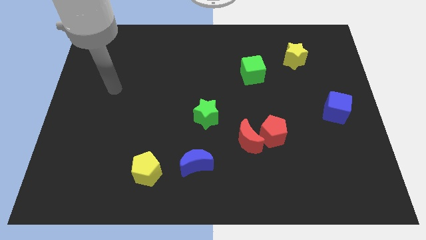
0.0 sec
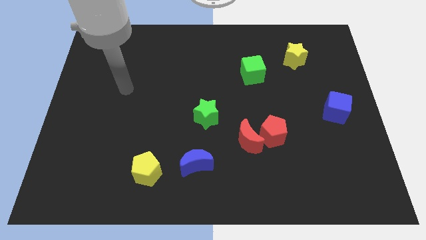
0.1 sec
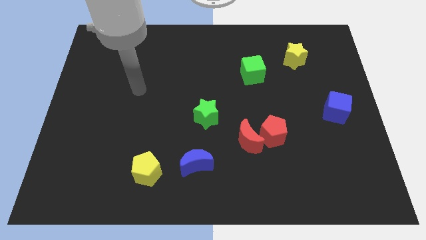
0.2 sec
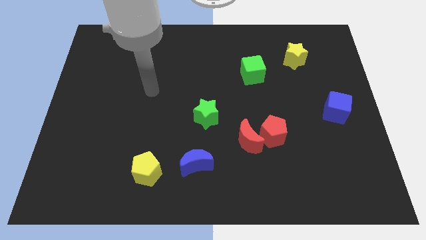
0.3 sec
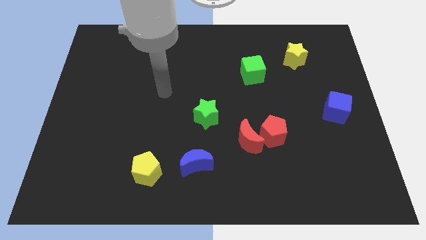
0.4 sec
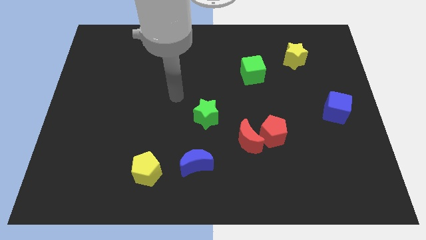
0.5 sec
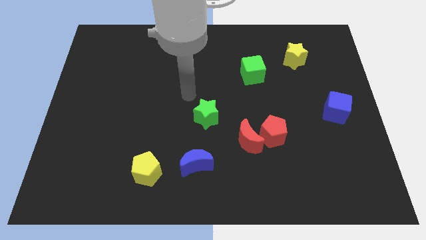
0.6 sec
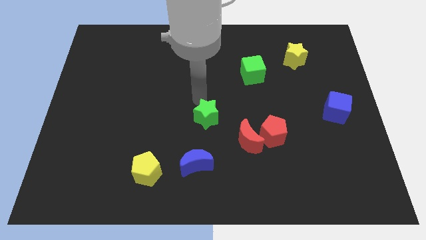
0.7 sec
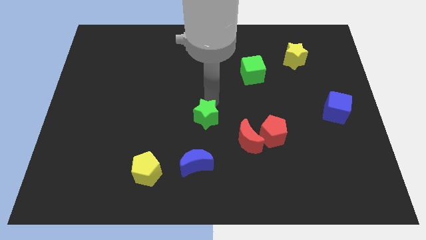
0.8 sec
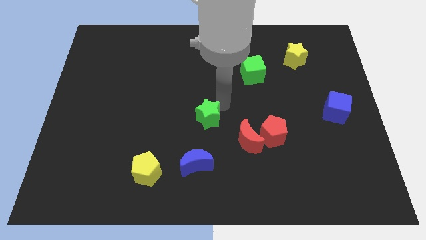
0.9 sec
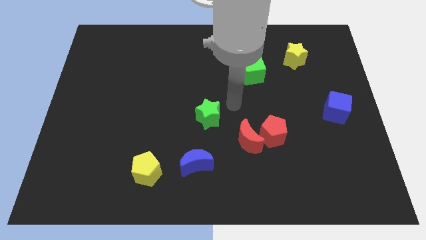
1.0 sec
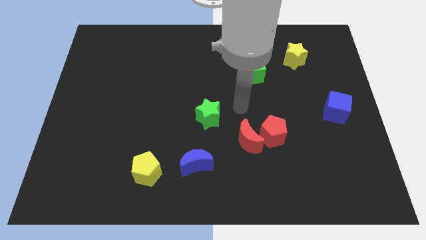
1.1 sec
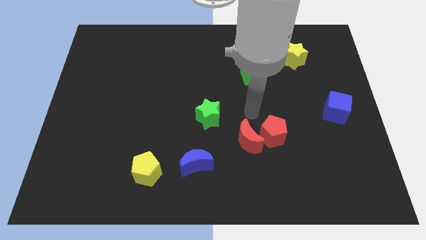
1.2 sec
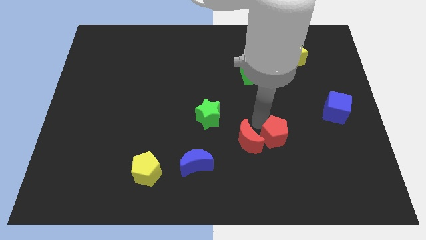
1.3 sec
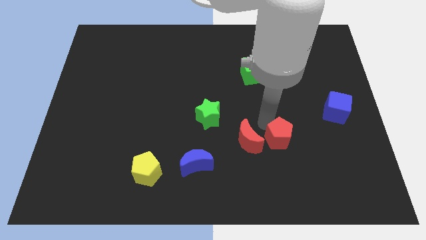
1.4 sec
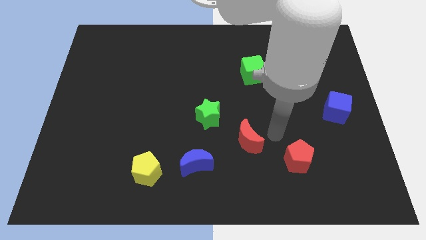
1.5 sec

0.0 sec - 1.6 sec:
pull the red moon apart from the red pentagon

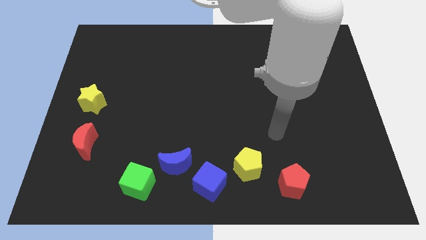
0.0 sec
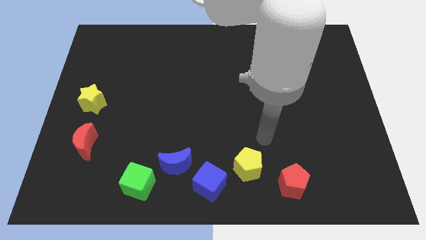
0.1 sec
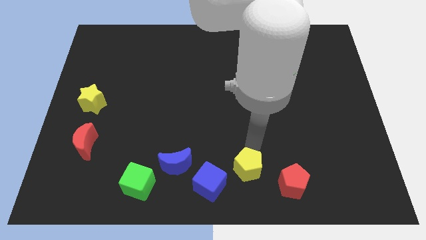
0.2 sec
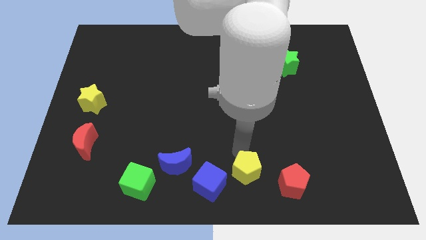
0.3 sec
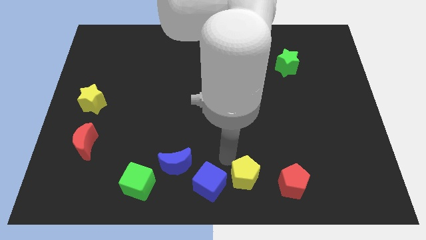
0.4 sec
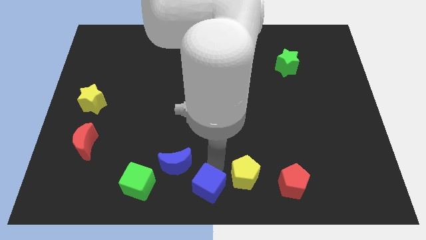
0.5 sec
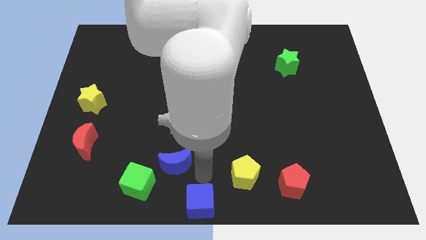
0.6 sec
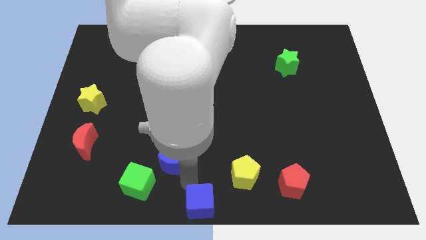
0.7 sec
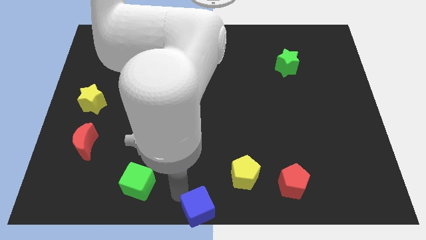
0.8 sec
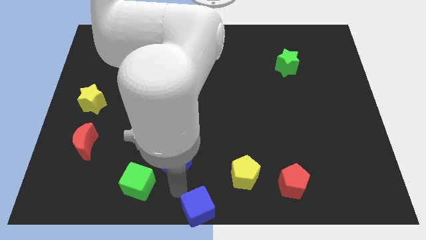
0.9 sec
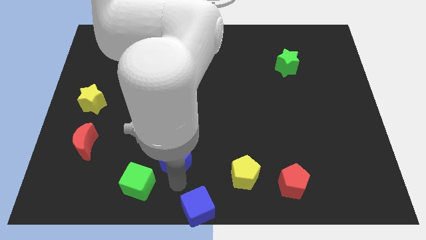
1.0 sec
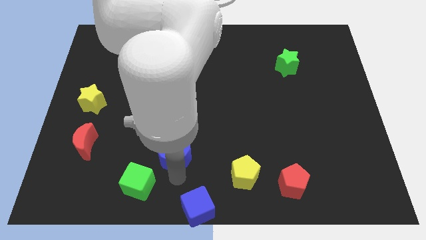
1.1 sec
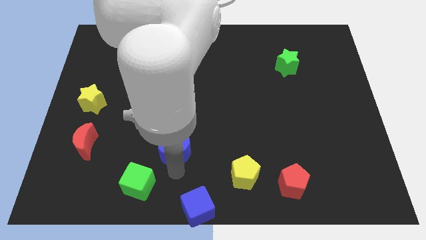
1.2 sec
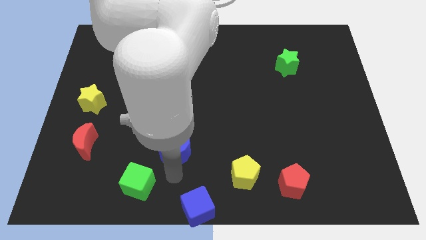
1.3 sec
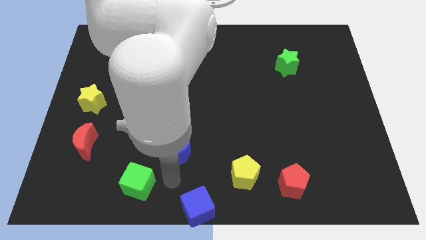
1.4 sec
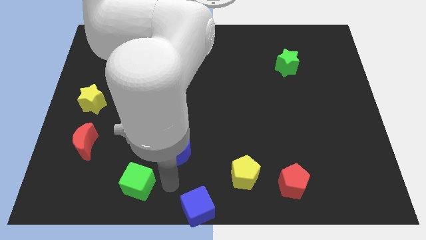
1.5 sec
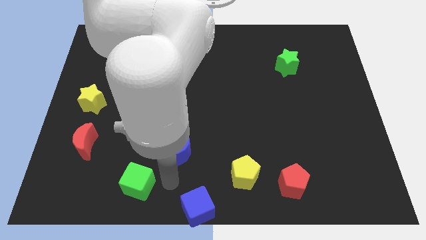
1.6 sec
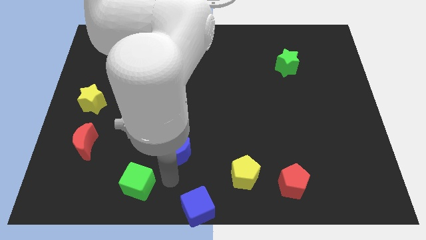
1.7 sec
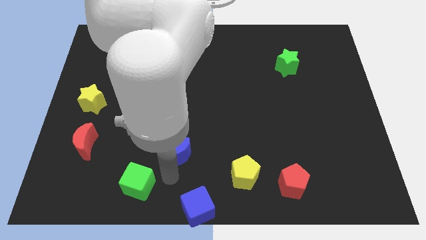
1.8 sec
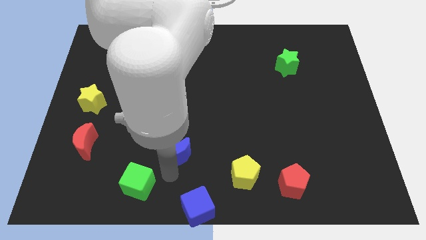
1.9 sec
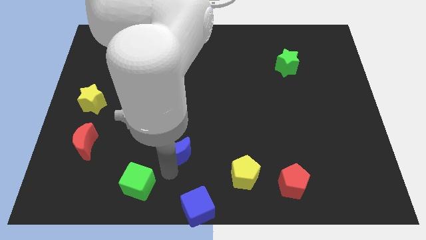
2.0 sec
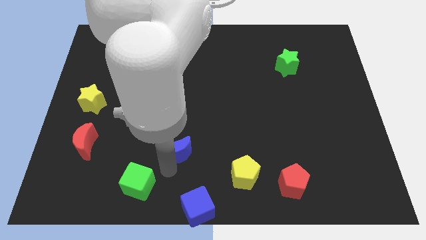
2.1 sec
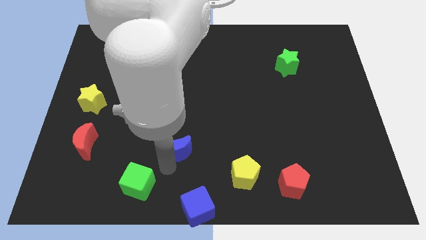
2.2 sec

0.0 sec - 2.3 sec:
pull the blue moon apart from the blue cube and green cube

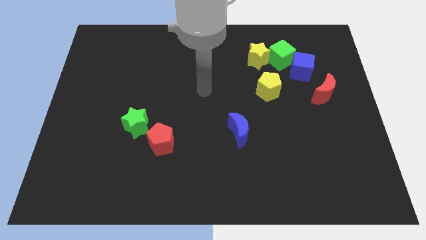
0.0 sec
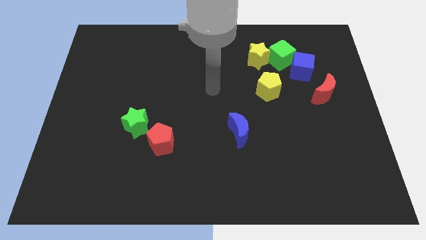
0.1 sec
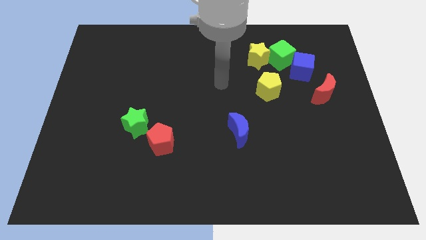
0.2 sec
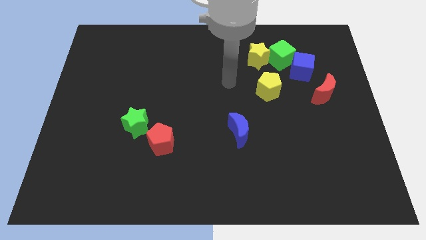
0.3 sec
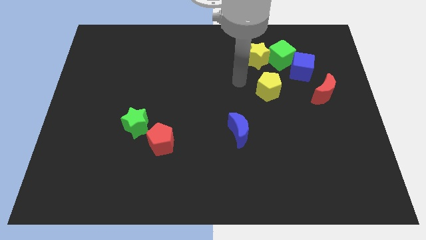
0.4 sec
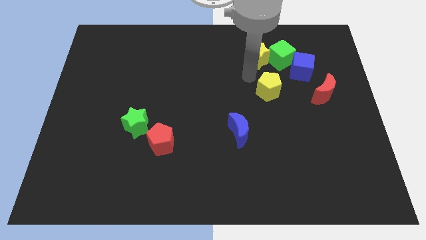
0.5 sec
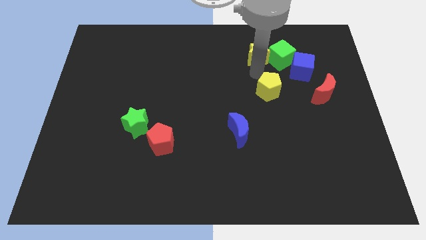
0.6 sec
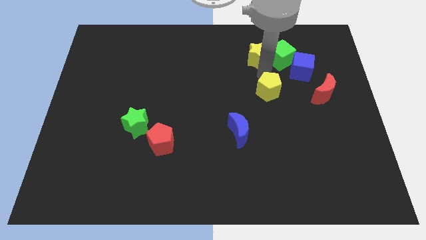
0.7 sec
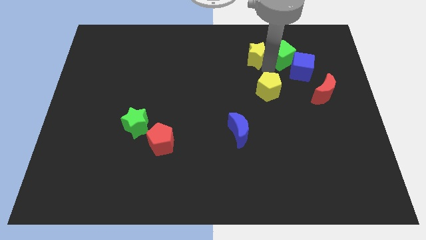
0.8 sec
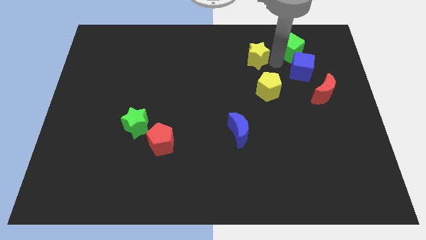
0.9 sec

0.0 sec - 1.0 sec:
separate the yellow star from the green cube

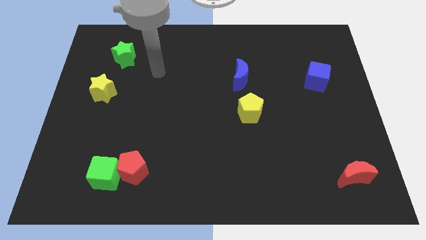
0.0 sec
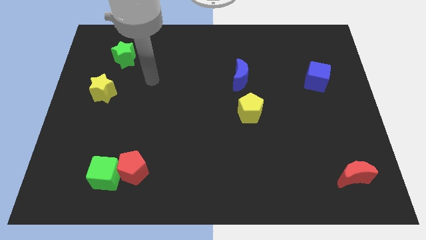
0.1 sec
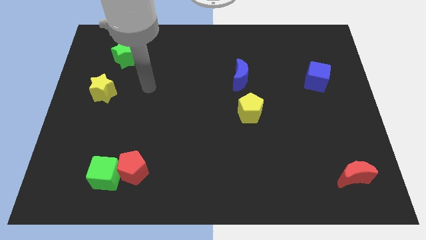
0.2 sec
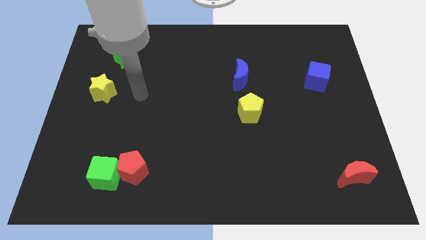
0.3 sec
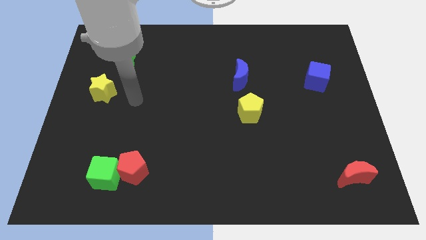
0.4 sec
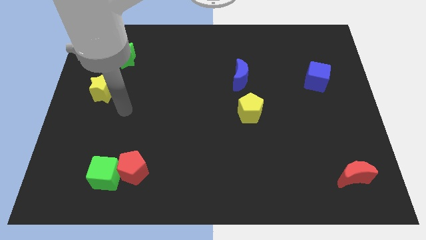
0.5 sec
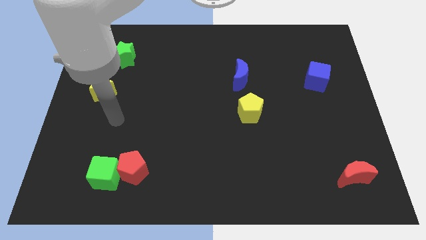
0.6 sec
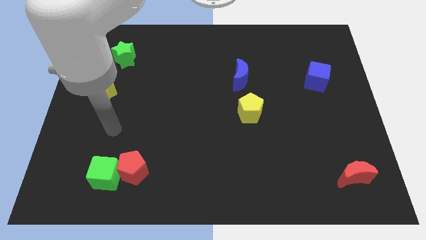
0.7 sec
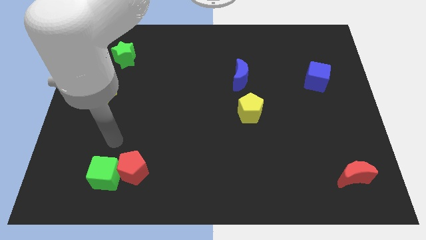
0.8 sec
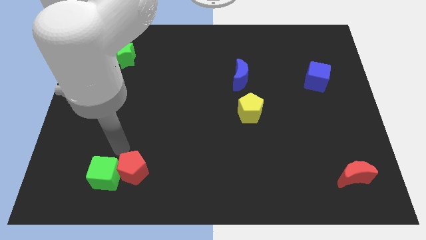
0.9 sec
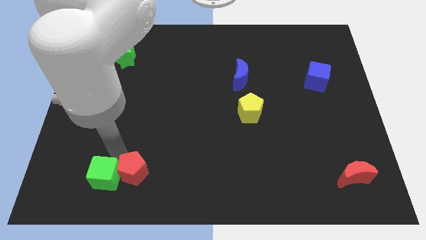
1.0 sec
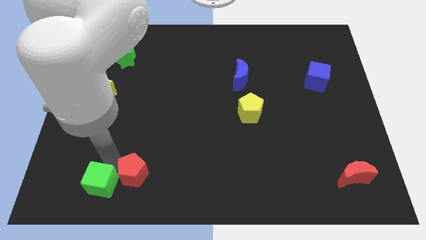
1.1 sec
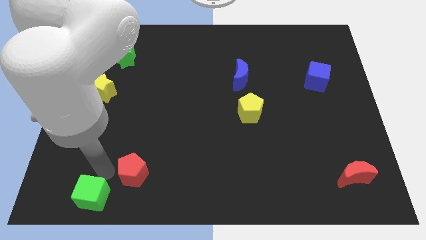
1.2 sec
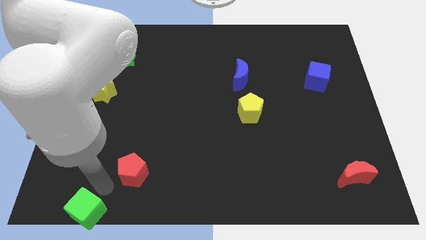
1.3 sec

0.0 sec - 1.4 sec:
separate the red pentagon from the green cube

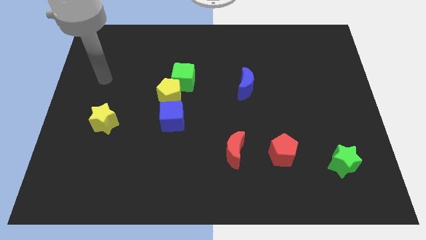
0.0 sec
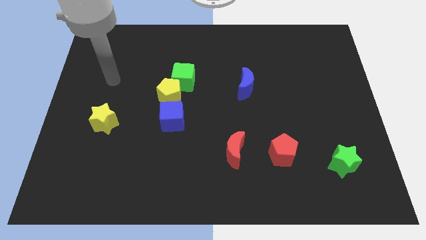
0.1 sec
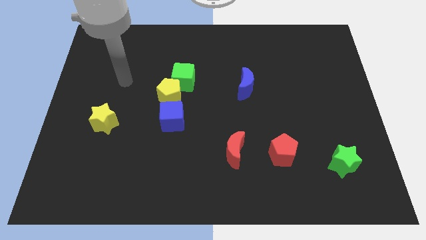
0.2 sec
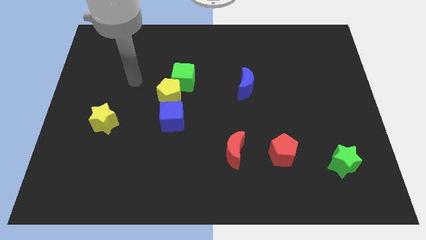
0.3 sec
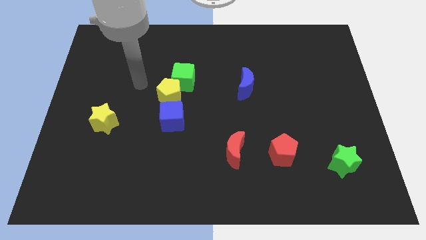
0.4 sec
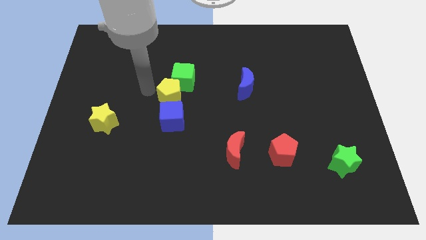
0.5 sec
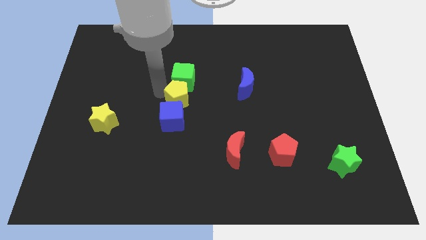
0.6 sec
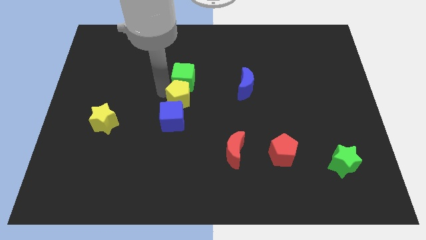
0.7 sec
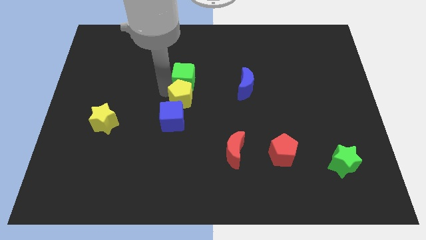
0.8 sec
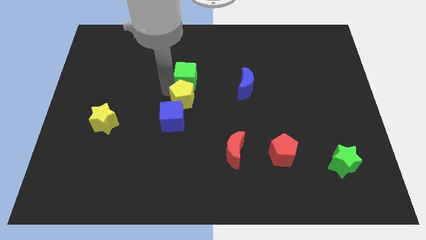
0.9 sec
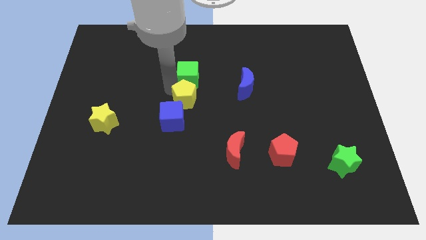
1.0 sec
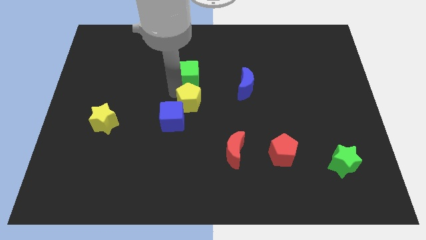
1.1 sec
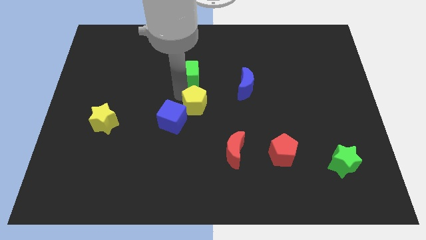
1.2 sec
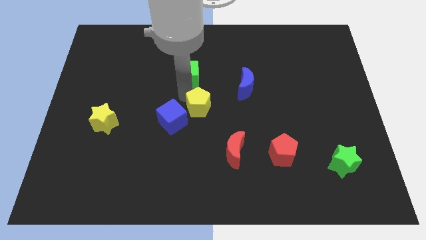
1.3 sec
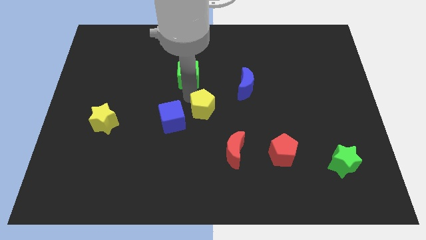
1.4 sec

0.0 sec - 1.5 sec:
separate the green cube from the yellow pentagon

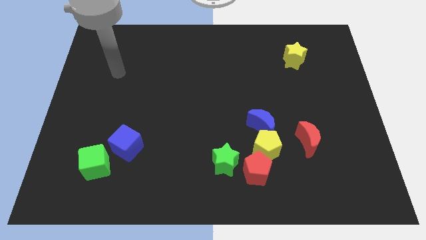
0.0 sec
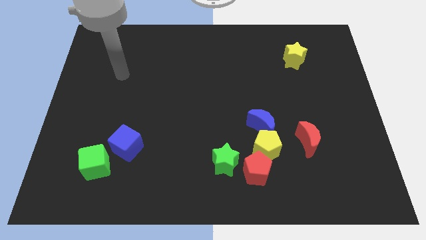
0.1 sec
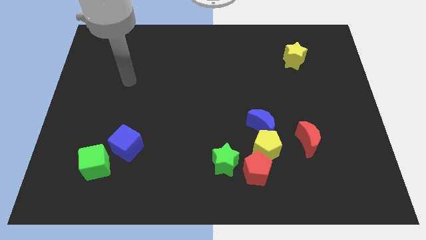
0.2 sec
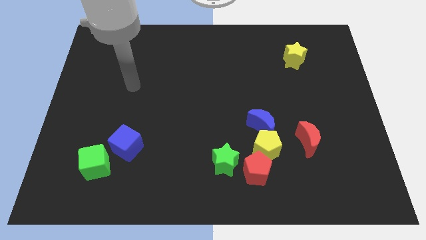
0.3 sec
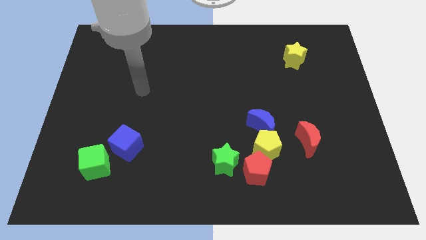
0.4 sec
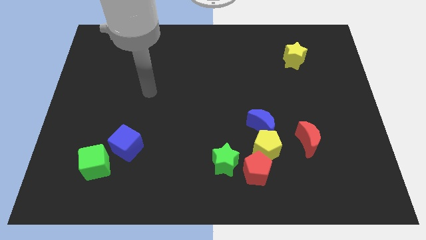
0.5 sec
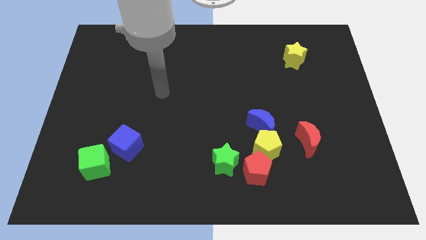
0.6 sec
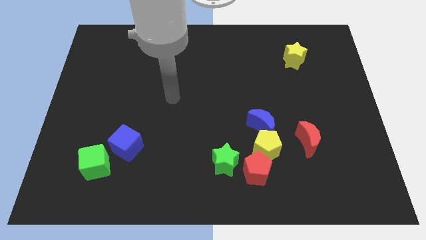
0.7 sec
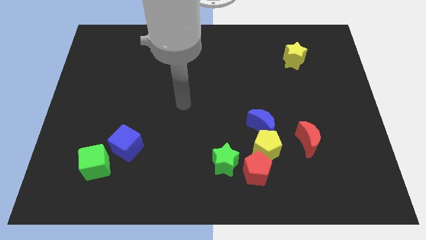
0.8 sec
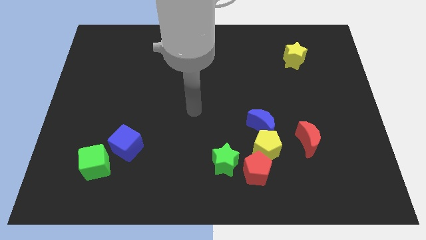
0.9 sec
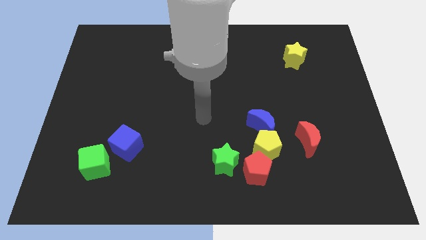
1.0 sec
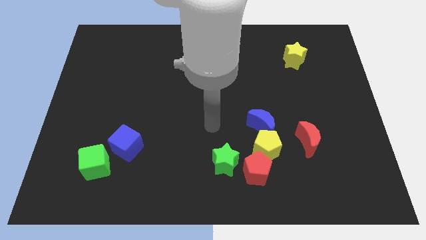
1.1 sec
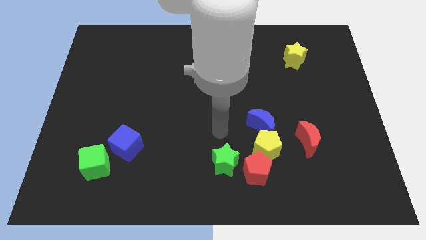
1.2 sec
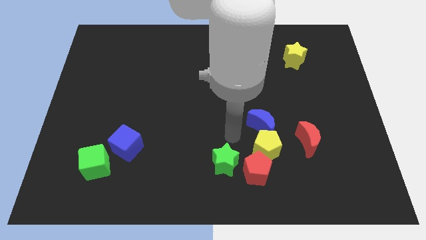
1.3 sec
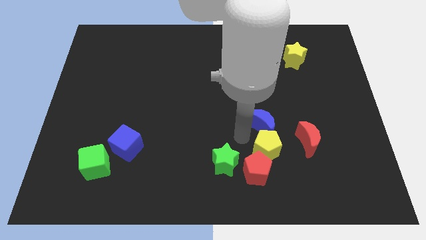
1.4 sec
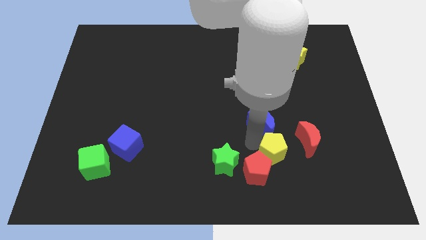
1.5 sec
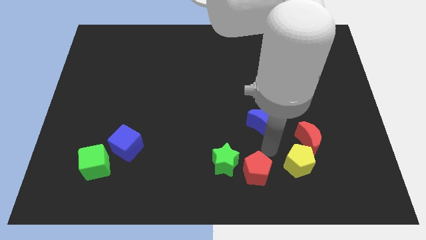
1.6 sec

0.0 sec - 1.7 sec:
separate the blue moon from the yellow pentagon
